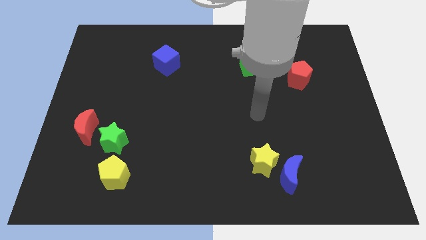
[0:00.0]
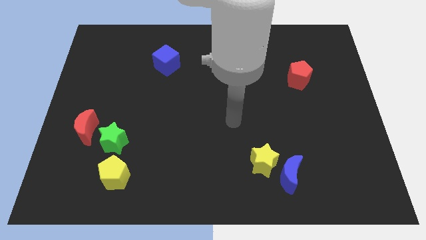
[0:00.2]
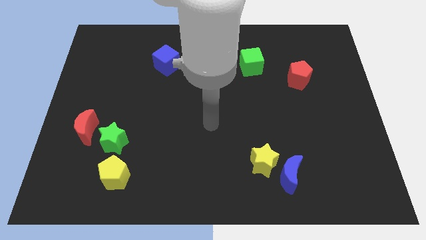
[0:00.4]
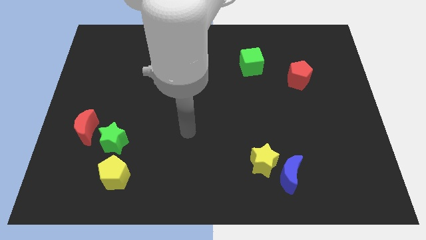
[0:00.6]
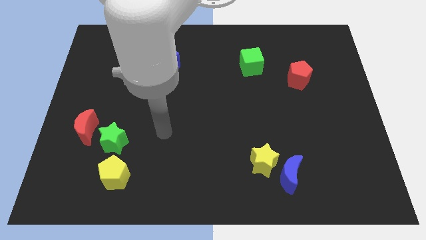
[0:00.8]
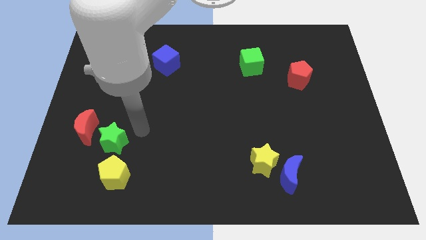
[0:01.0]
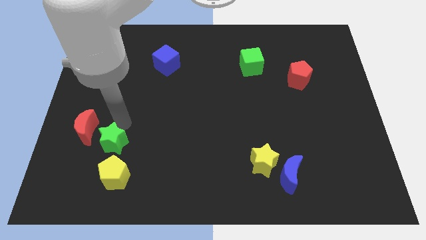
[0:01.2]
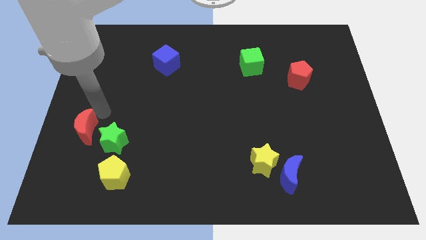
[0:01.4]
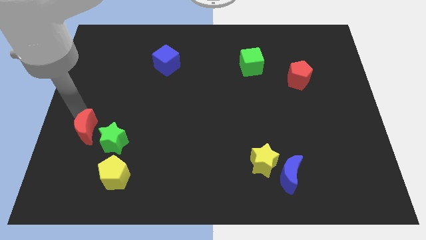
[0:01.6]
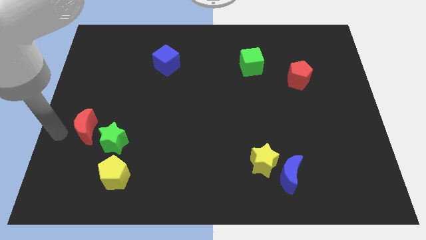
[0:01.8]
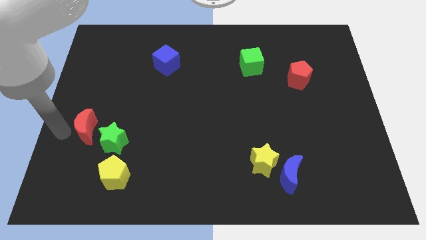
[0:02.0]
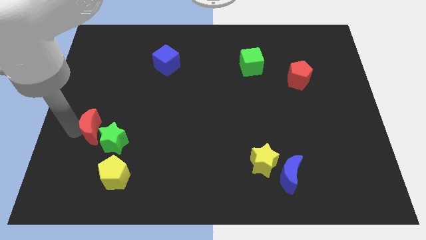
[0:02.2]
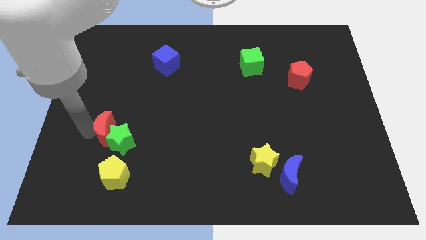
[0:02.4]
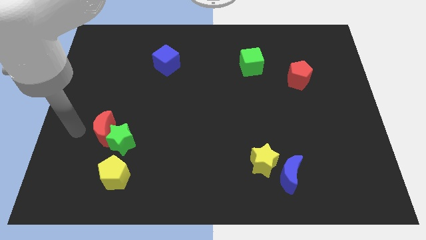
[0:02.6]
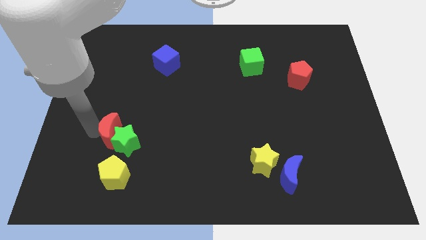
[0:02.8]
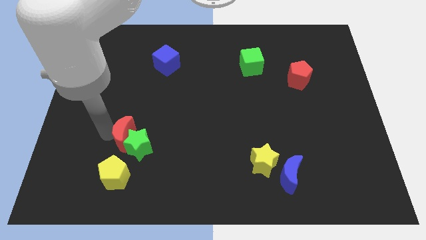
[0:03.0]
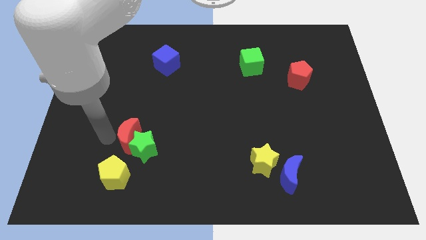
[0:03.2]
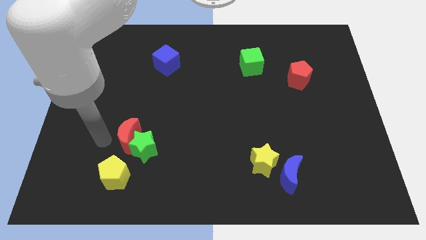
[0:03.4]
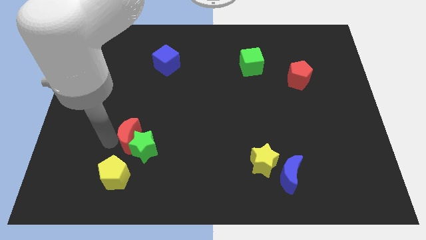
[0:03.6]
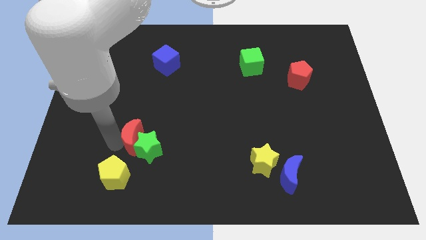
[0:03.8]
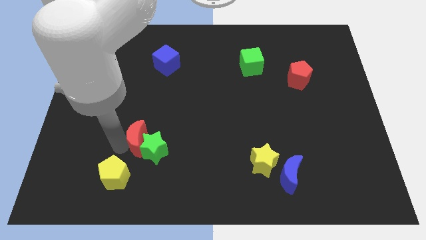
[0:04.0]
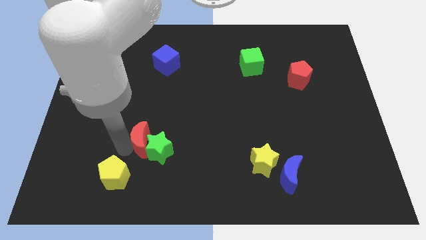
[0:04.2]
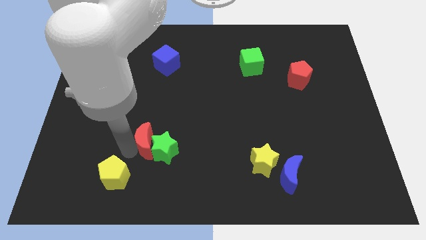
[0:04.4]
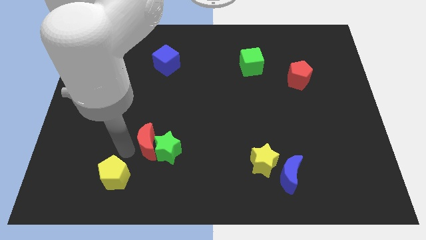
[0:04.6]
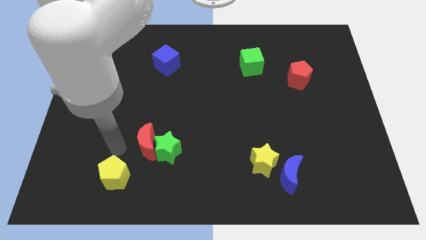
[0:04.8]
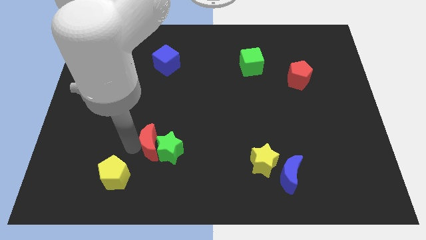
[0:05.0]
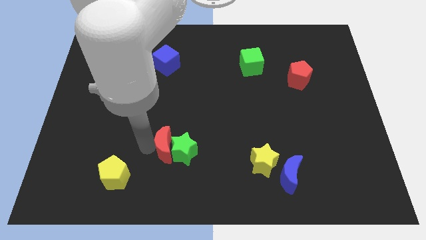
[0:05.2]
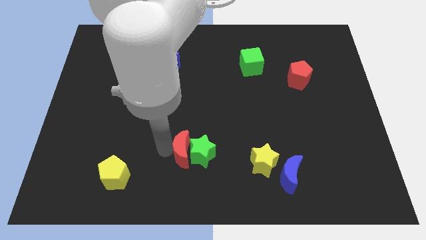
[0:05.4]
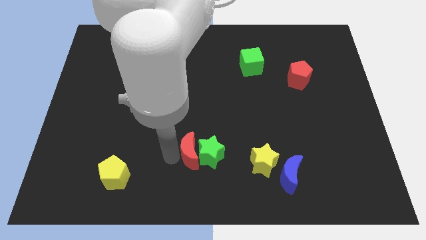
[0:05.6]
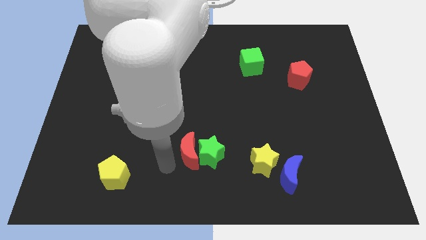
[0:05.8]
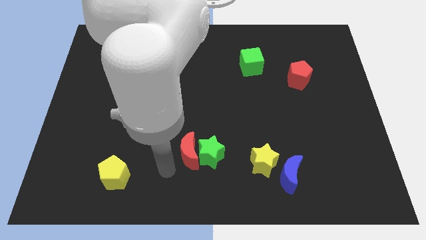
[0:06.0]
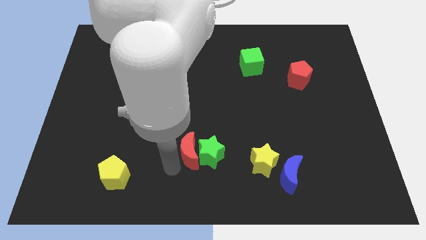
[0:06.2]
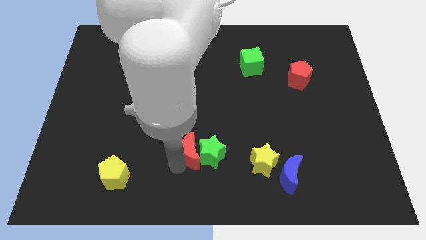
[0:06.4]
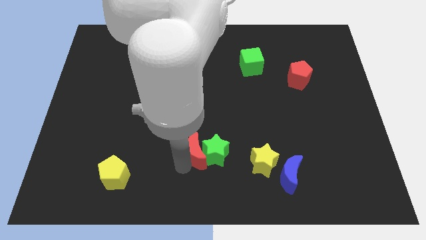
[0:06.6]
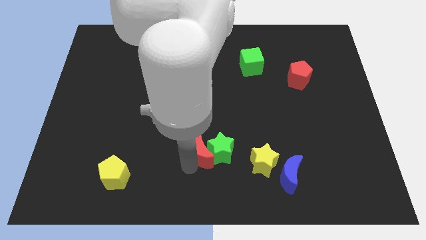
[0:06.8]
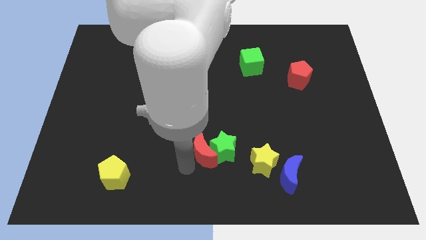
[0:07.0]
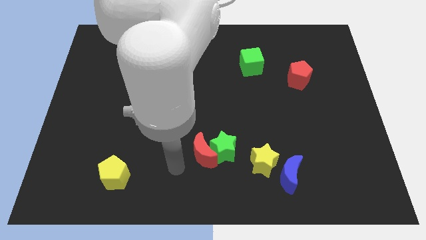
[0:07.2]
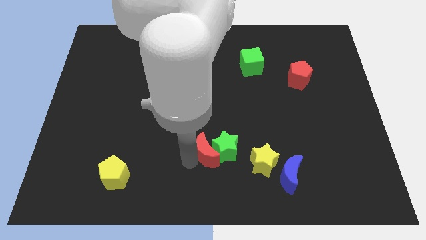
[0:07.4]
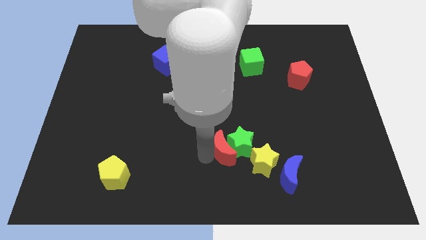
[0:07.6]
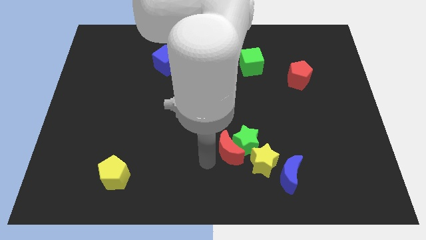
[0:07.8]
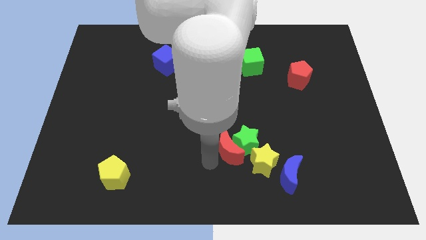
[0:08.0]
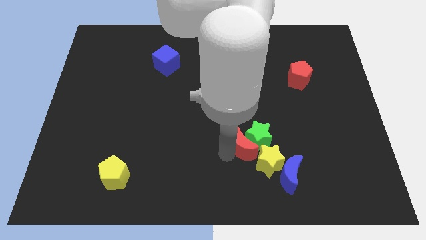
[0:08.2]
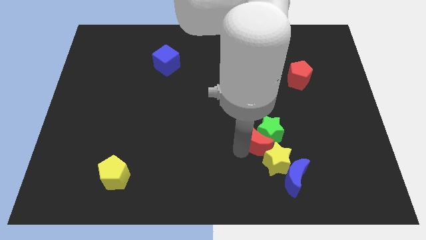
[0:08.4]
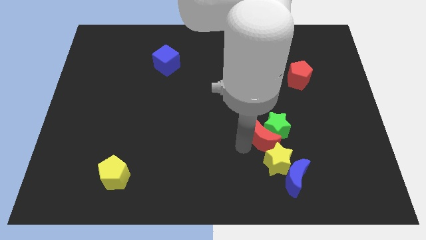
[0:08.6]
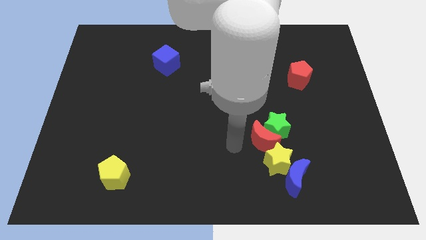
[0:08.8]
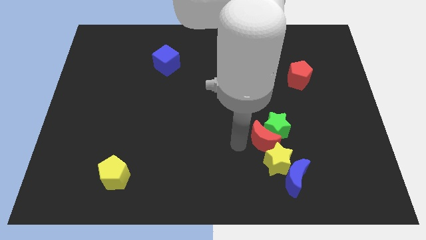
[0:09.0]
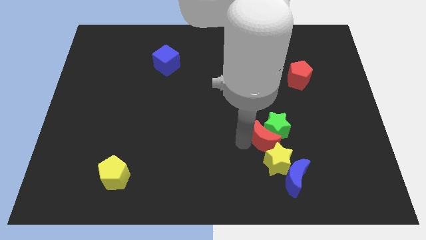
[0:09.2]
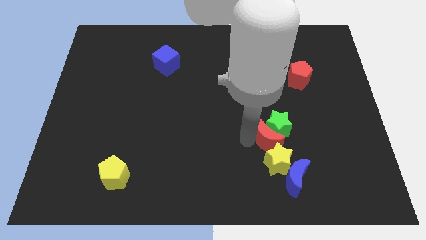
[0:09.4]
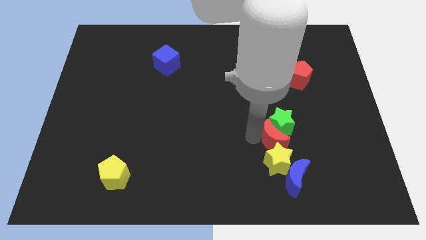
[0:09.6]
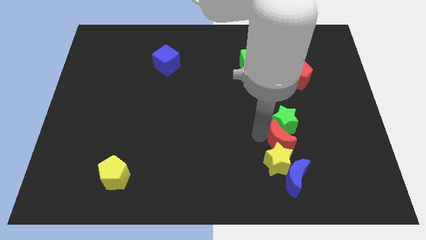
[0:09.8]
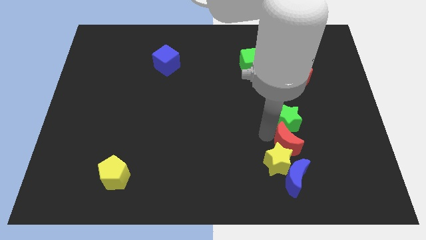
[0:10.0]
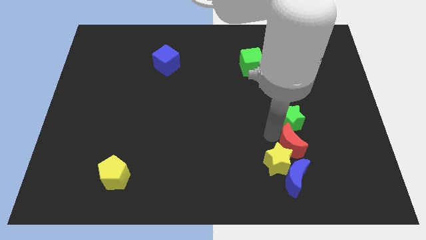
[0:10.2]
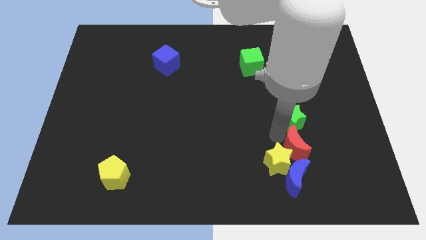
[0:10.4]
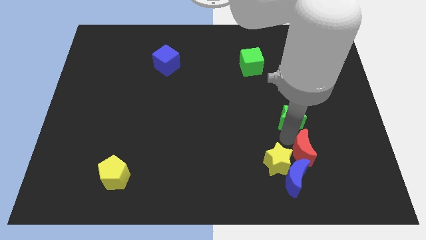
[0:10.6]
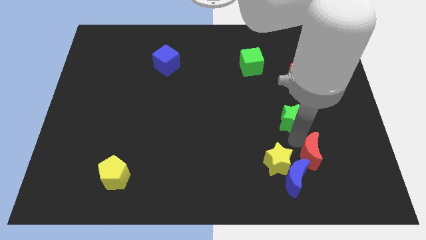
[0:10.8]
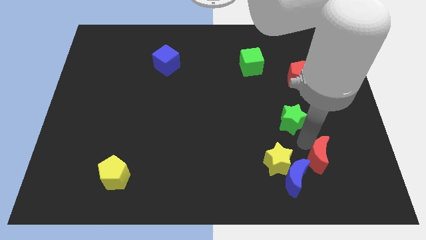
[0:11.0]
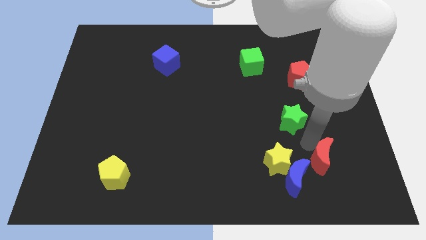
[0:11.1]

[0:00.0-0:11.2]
slide the red moon just right of the blue moon

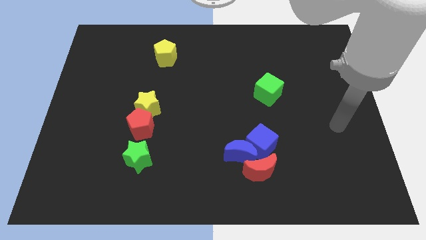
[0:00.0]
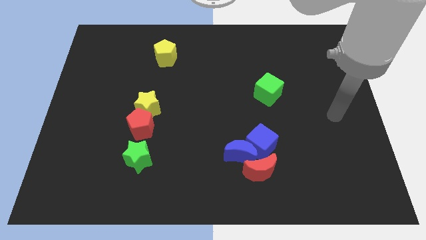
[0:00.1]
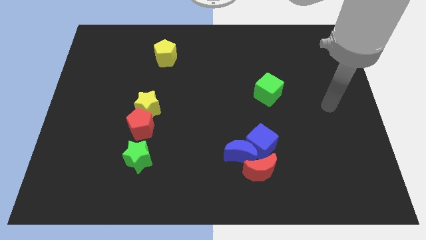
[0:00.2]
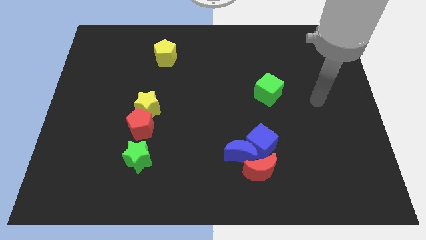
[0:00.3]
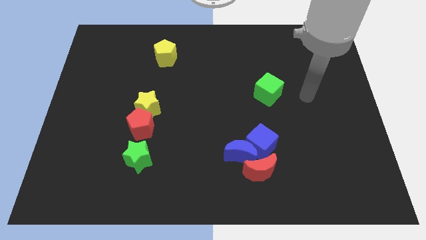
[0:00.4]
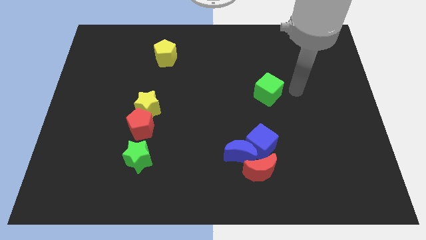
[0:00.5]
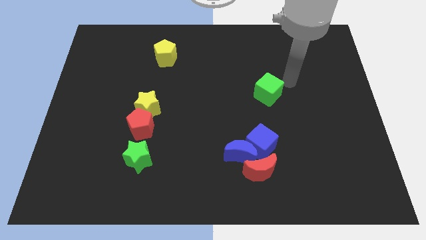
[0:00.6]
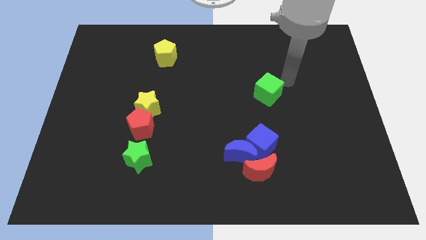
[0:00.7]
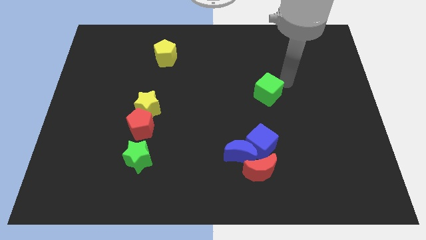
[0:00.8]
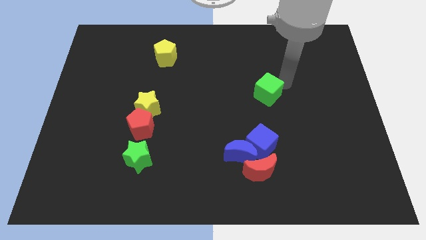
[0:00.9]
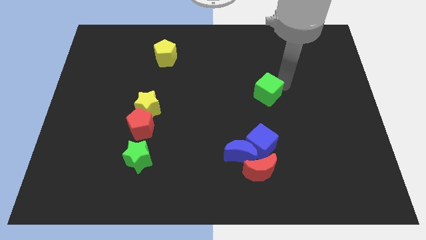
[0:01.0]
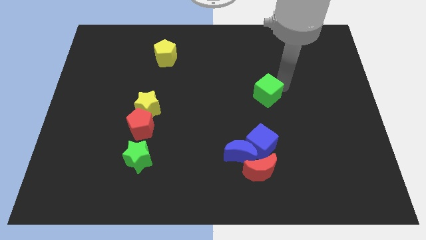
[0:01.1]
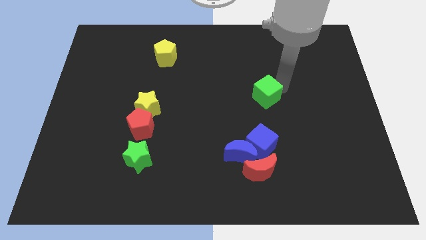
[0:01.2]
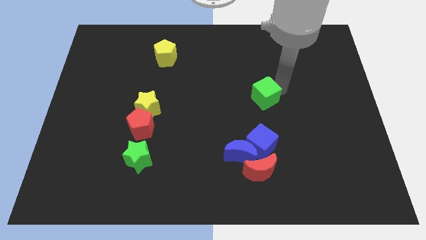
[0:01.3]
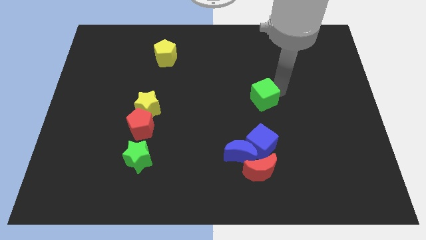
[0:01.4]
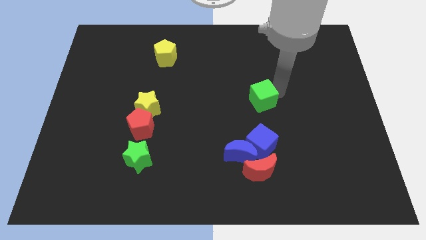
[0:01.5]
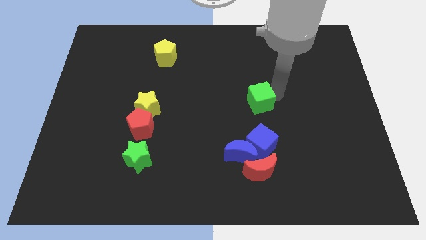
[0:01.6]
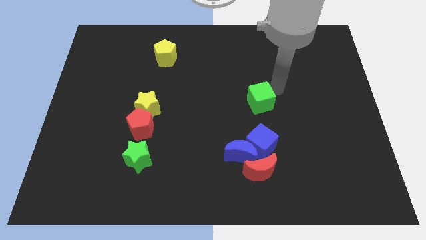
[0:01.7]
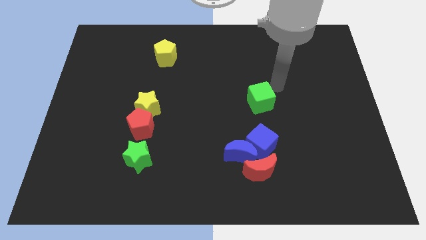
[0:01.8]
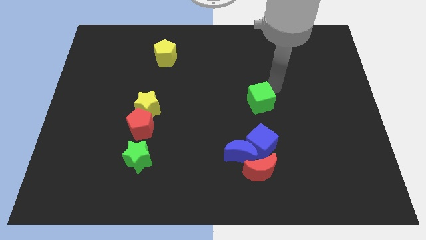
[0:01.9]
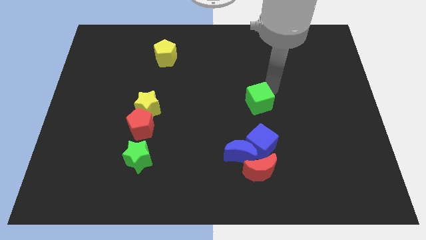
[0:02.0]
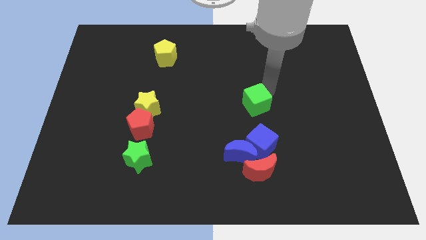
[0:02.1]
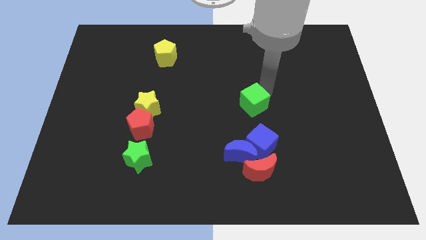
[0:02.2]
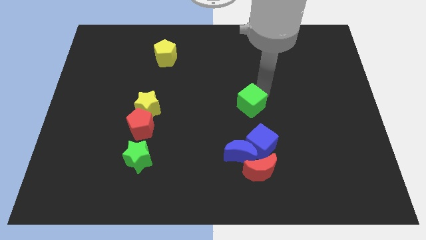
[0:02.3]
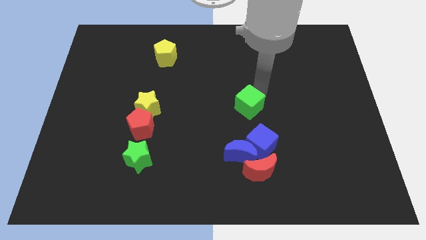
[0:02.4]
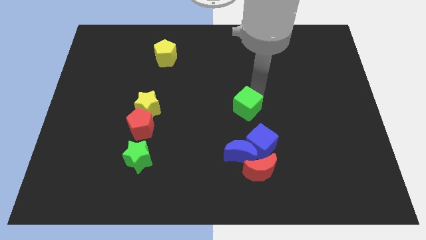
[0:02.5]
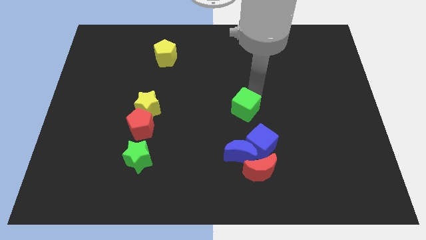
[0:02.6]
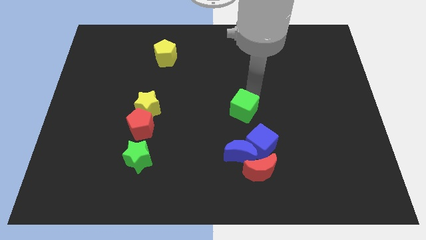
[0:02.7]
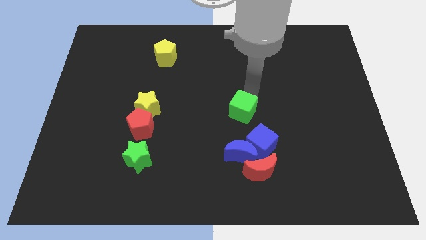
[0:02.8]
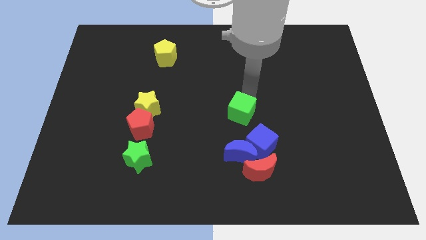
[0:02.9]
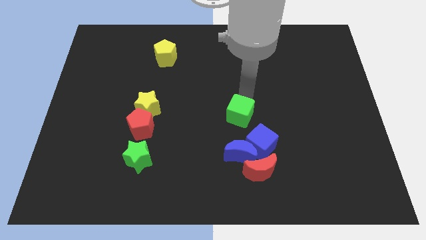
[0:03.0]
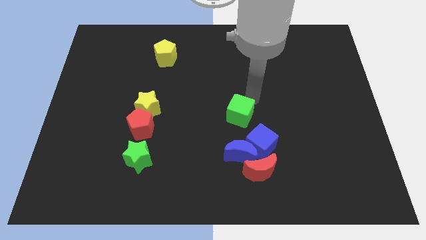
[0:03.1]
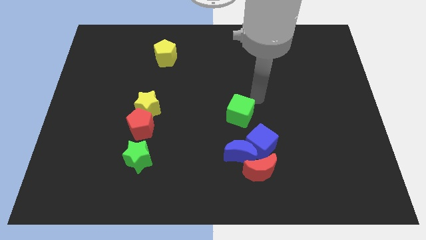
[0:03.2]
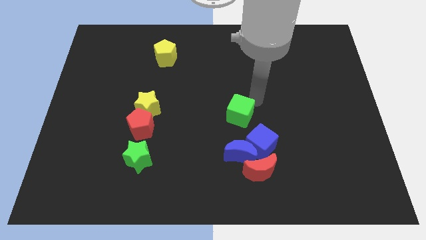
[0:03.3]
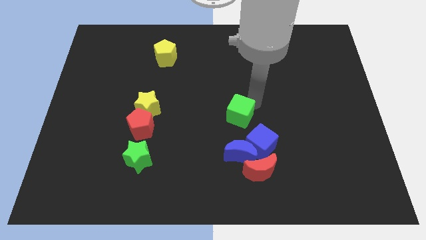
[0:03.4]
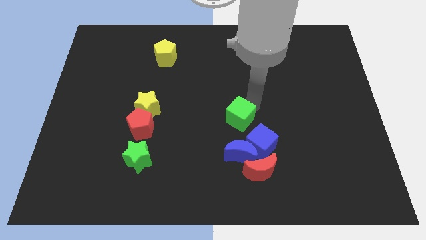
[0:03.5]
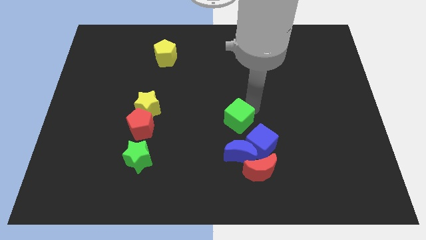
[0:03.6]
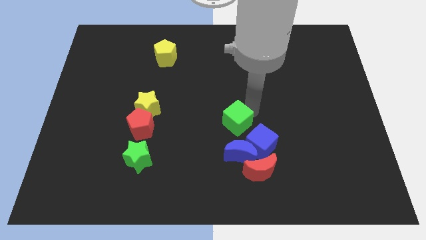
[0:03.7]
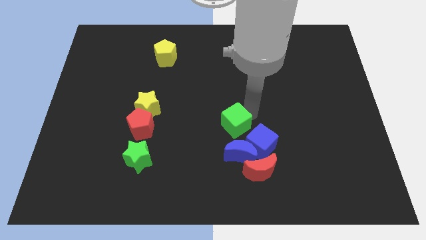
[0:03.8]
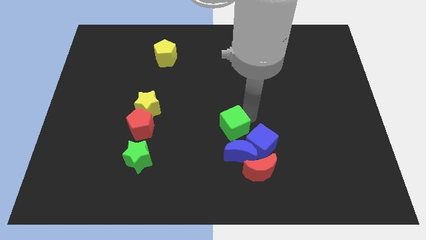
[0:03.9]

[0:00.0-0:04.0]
put the green cube to the top left of the blue moon
